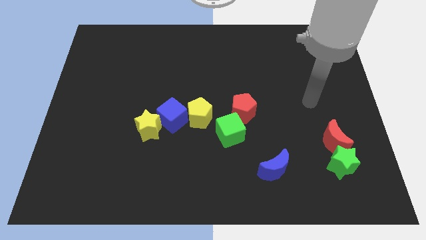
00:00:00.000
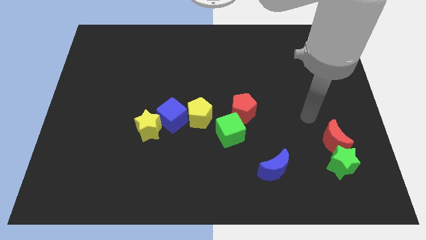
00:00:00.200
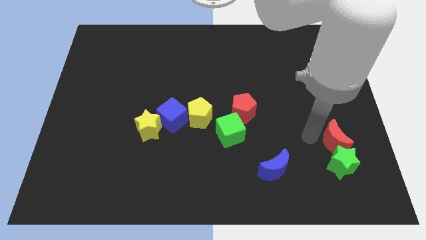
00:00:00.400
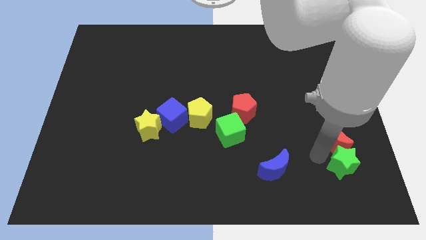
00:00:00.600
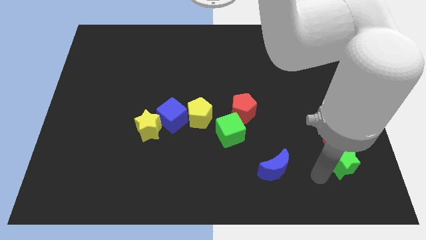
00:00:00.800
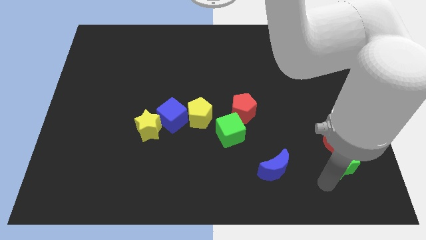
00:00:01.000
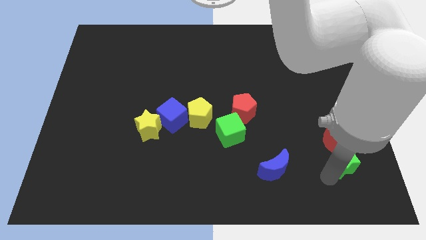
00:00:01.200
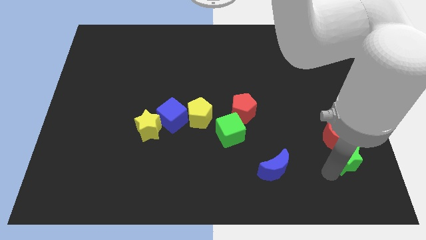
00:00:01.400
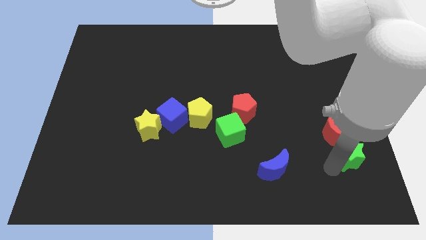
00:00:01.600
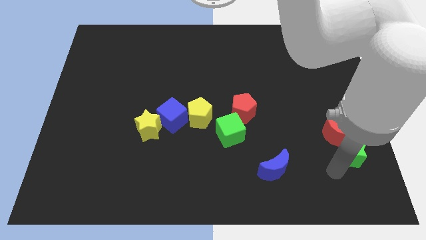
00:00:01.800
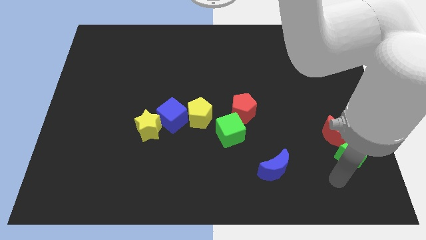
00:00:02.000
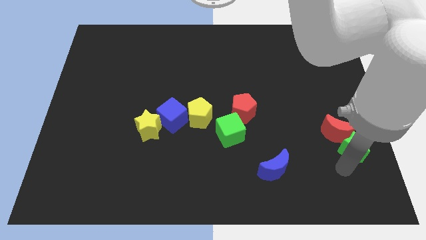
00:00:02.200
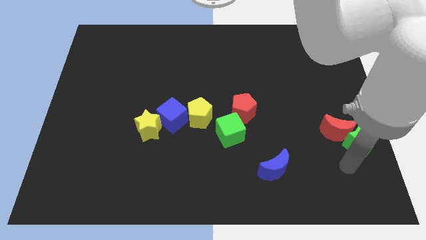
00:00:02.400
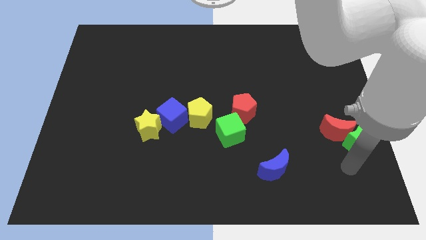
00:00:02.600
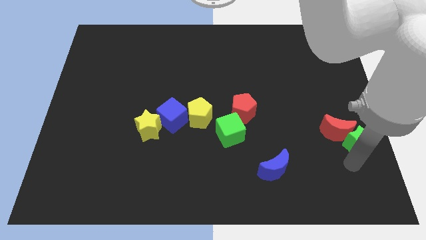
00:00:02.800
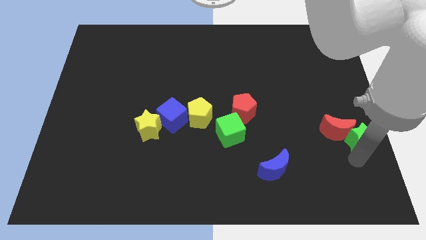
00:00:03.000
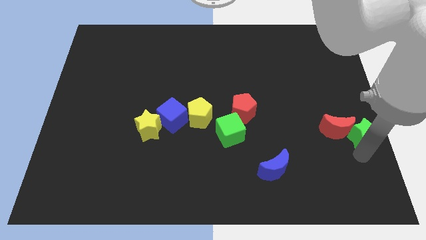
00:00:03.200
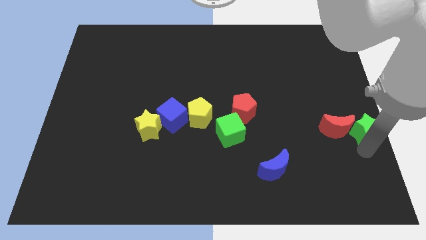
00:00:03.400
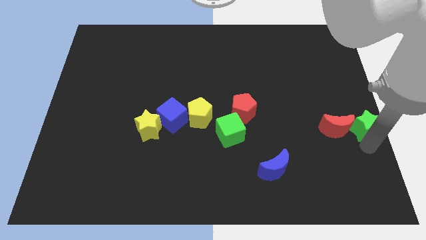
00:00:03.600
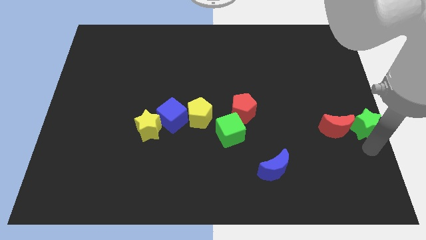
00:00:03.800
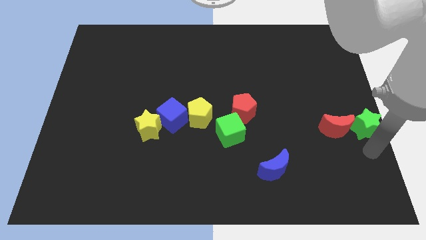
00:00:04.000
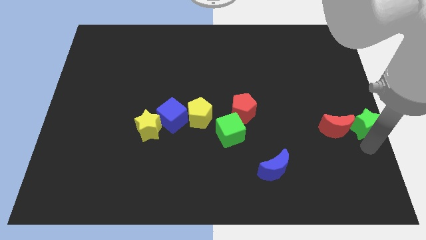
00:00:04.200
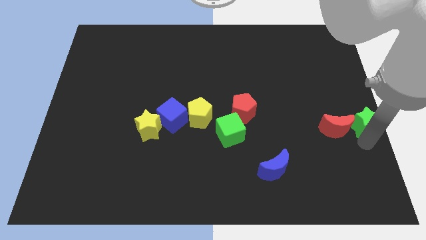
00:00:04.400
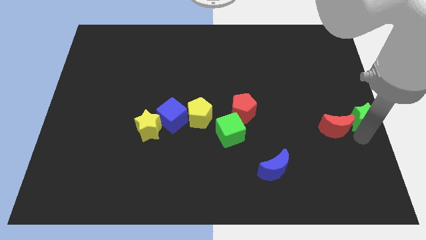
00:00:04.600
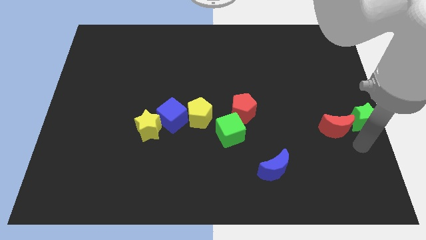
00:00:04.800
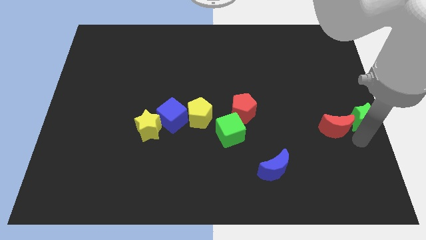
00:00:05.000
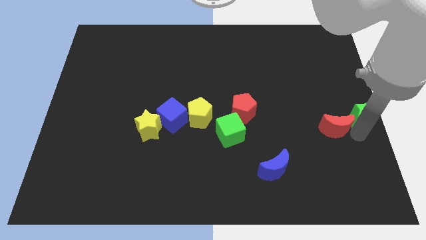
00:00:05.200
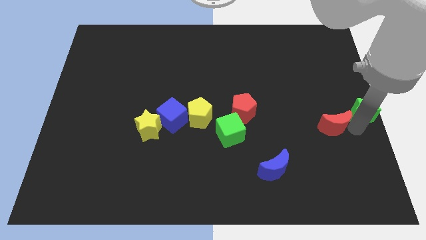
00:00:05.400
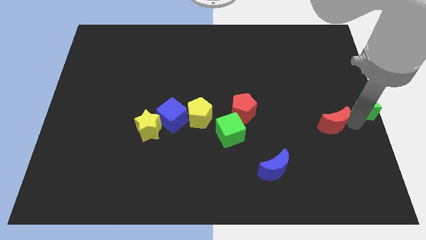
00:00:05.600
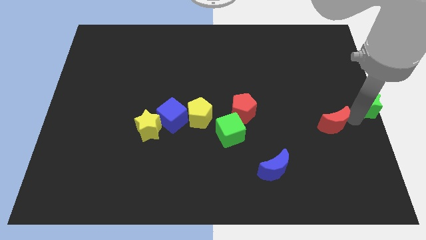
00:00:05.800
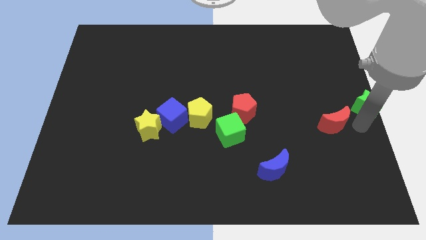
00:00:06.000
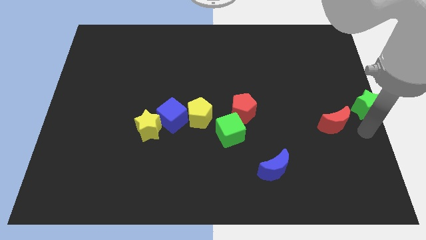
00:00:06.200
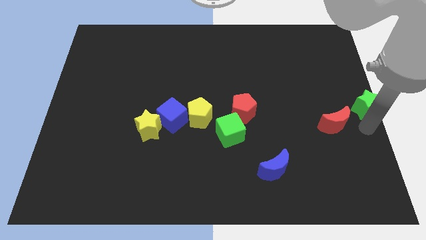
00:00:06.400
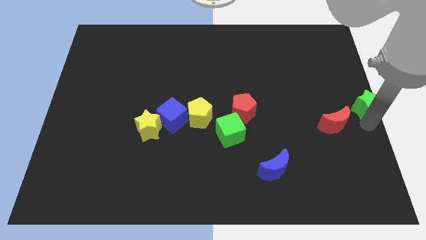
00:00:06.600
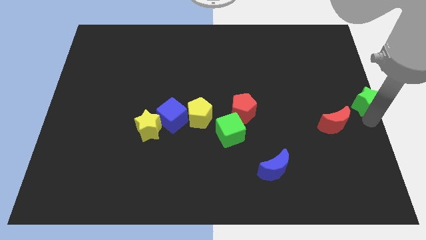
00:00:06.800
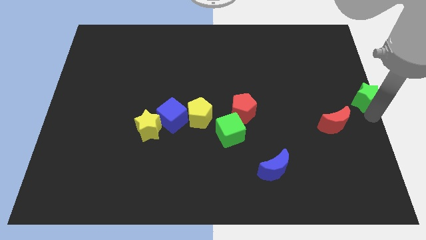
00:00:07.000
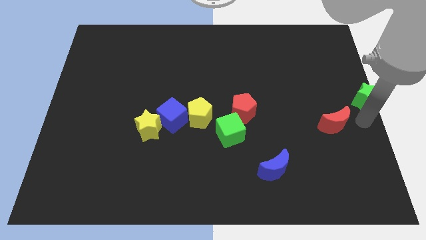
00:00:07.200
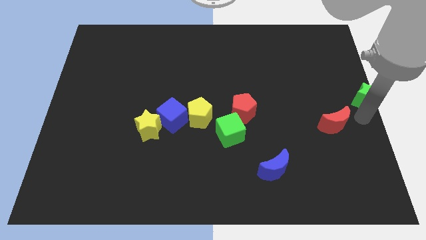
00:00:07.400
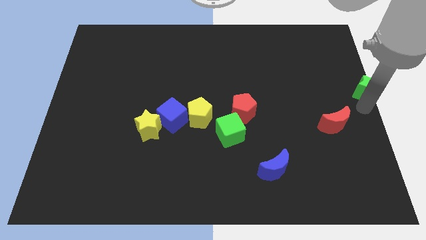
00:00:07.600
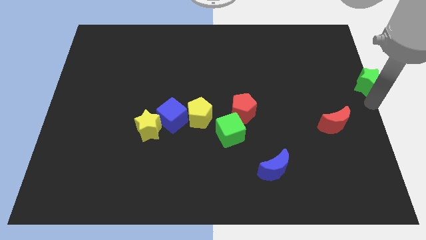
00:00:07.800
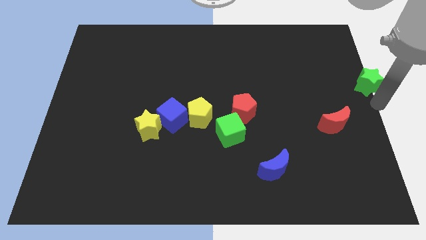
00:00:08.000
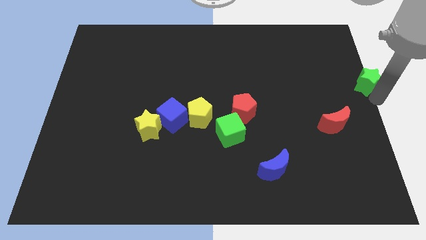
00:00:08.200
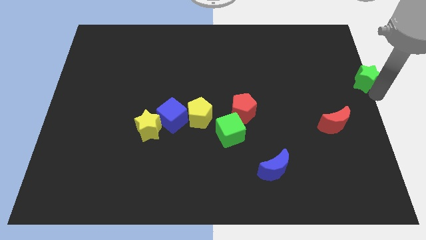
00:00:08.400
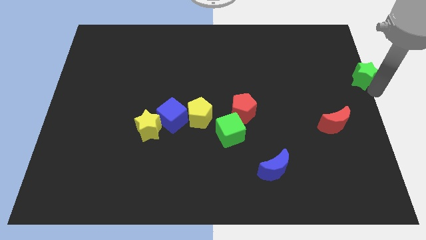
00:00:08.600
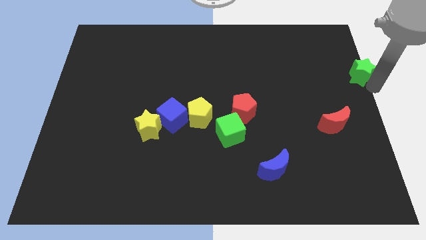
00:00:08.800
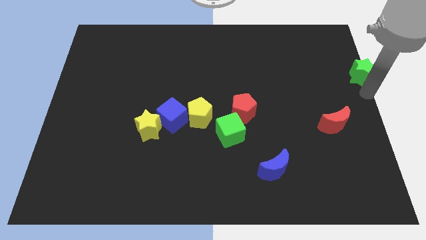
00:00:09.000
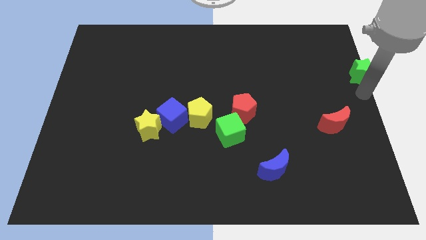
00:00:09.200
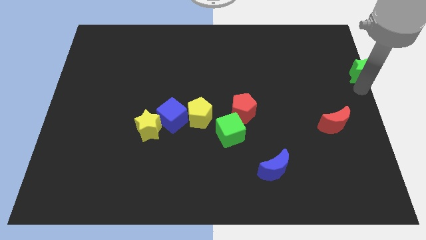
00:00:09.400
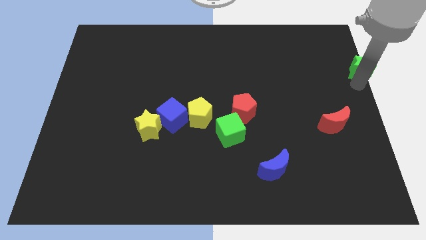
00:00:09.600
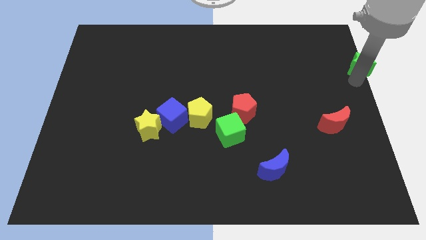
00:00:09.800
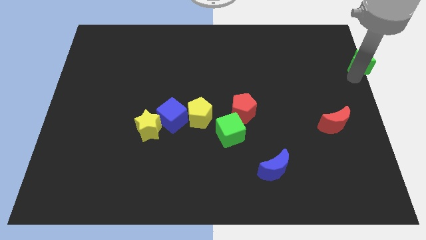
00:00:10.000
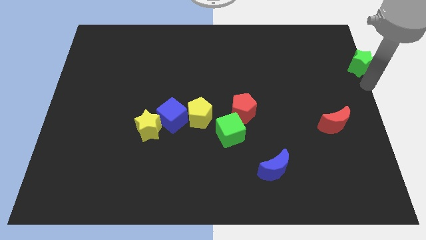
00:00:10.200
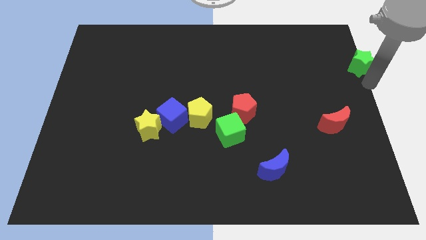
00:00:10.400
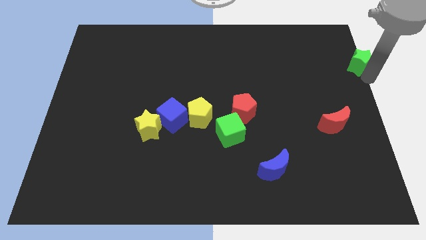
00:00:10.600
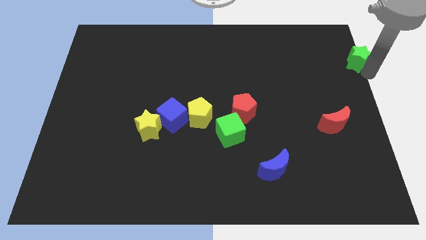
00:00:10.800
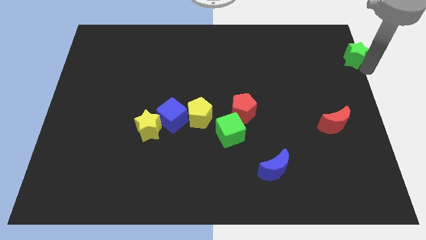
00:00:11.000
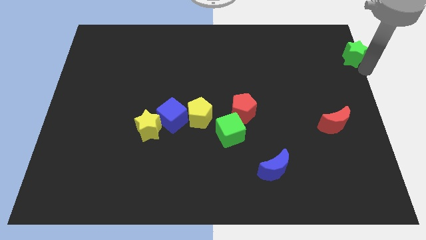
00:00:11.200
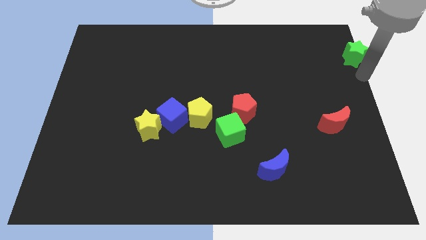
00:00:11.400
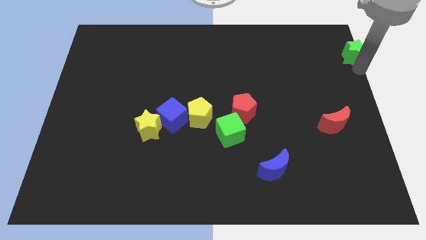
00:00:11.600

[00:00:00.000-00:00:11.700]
move the green star to the top right of the board

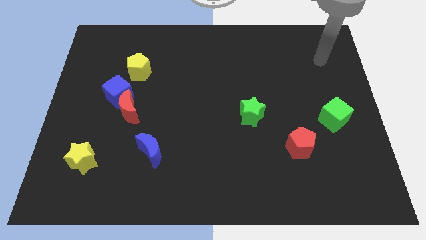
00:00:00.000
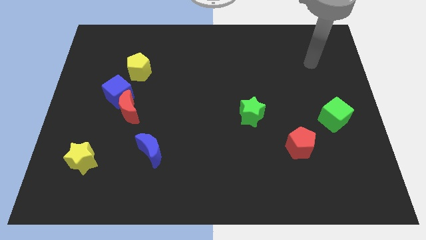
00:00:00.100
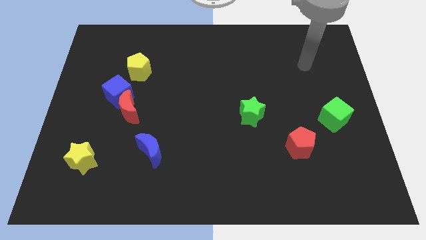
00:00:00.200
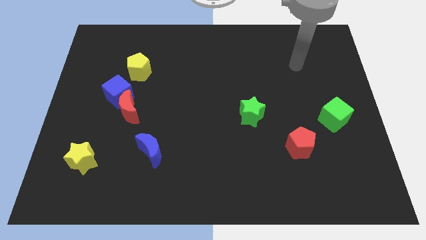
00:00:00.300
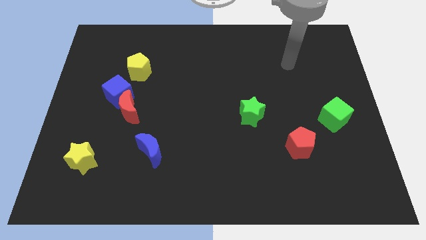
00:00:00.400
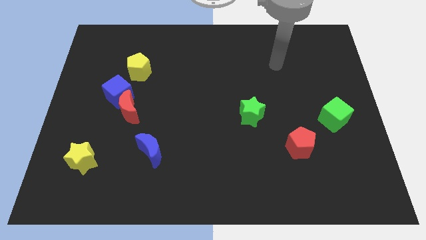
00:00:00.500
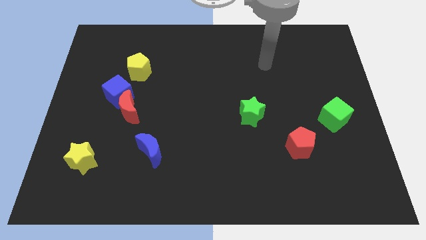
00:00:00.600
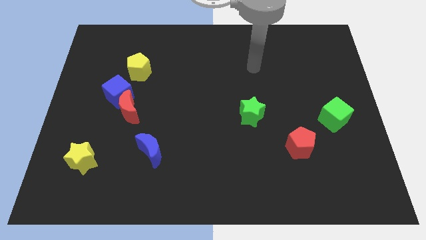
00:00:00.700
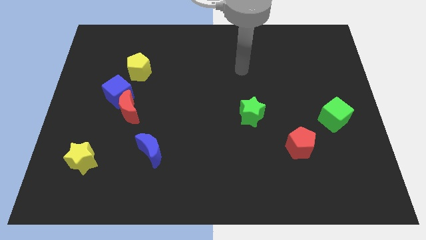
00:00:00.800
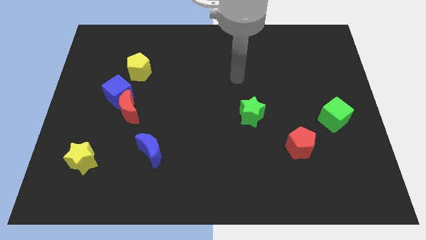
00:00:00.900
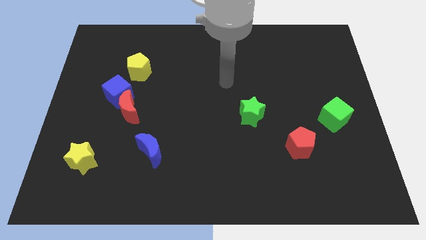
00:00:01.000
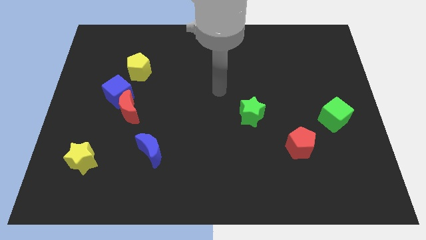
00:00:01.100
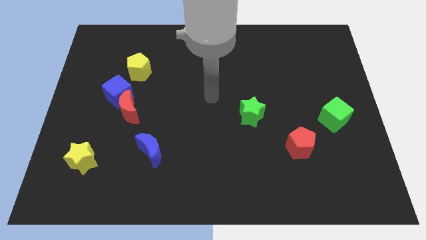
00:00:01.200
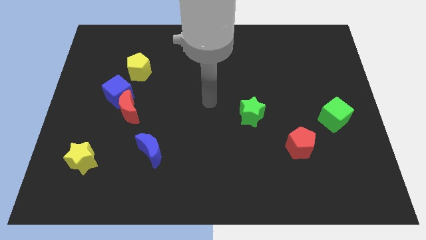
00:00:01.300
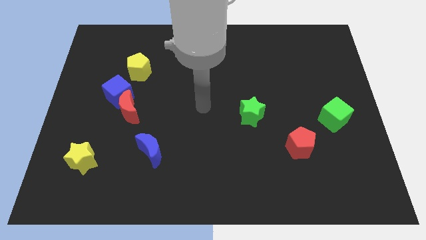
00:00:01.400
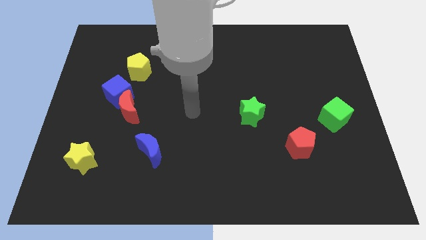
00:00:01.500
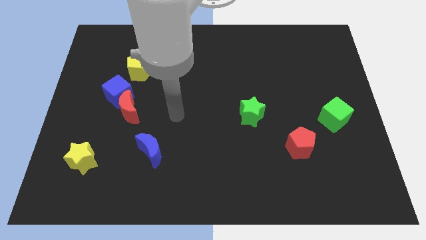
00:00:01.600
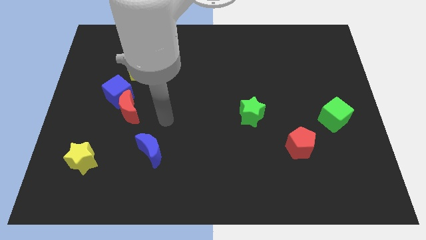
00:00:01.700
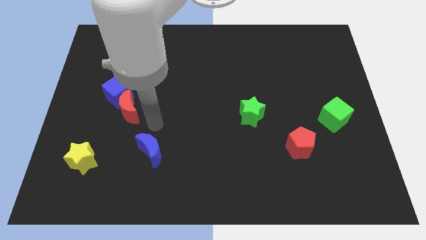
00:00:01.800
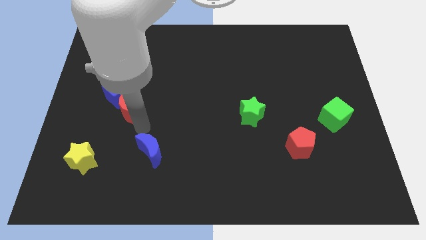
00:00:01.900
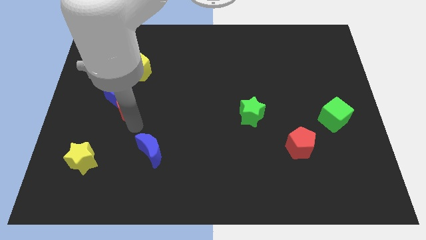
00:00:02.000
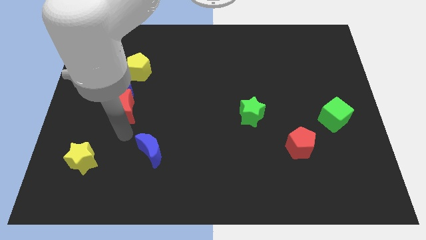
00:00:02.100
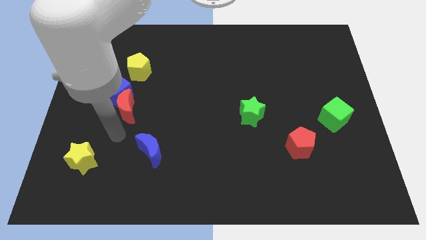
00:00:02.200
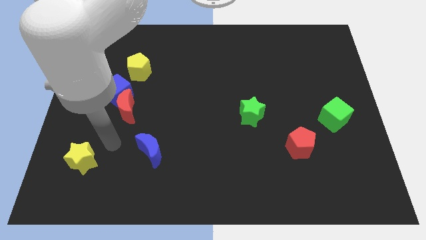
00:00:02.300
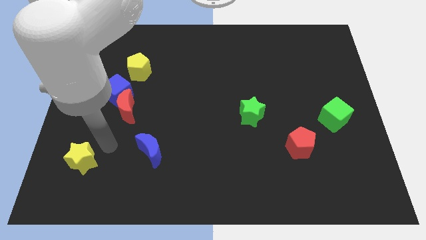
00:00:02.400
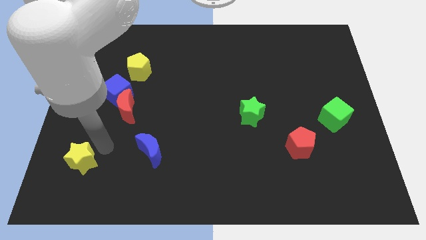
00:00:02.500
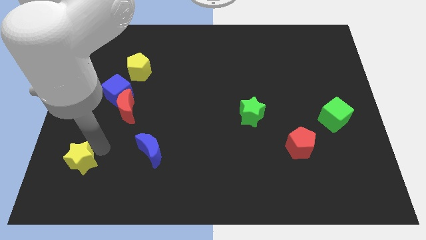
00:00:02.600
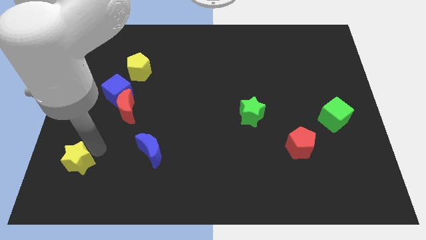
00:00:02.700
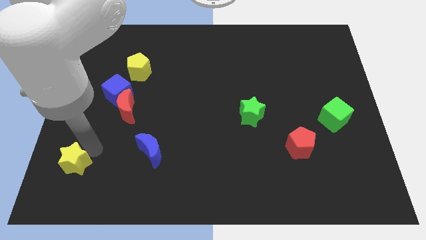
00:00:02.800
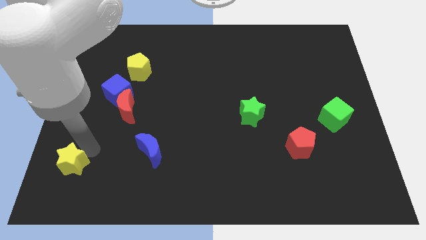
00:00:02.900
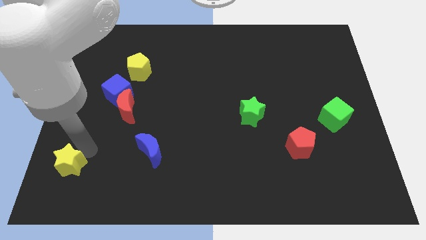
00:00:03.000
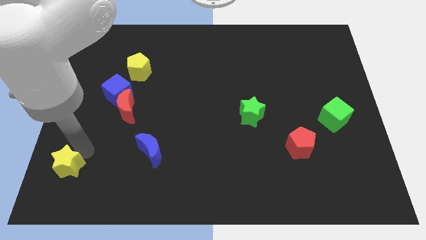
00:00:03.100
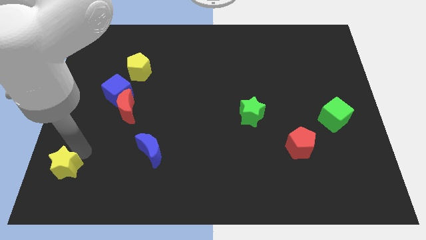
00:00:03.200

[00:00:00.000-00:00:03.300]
move the yellow star to the lower left corner
